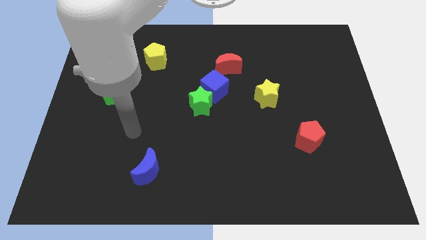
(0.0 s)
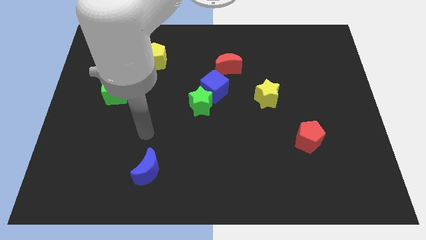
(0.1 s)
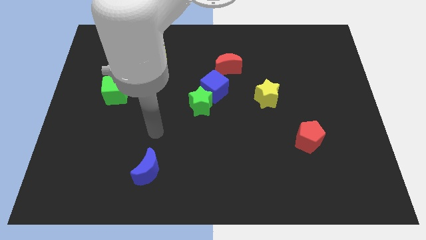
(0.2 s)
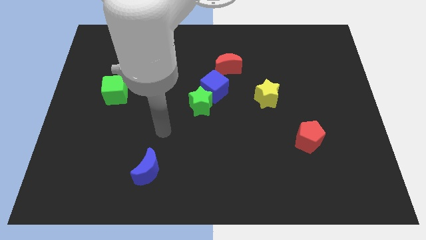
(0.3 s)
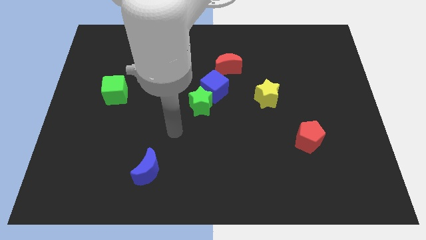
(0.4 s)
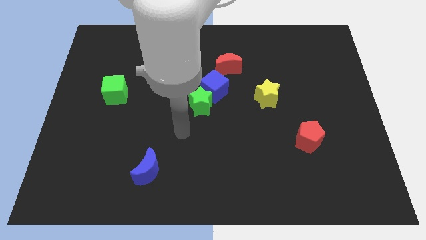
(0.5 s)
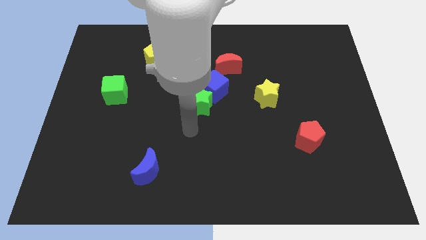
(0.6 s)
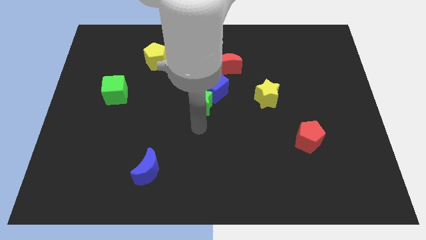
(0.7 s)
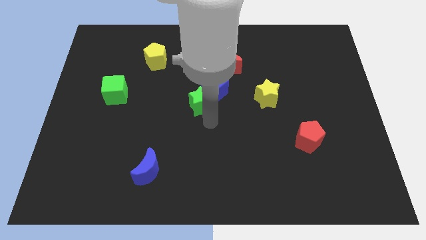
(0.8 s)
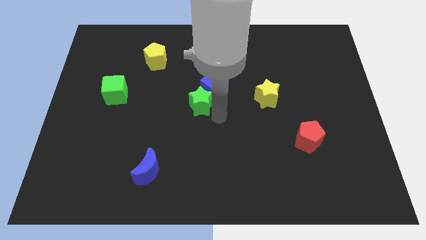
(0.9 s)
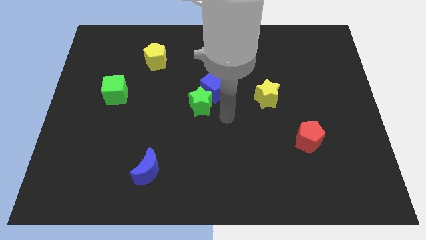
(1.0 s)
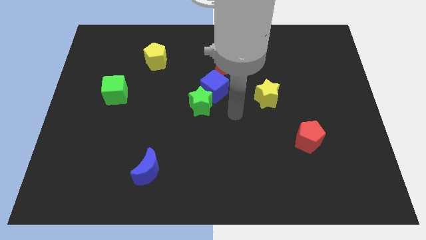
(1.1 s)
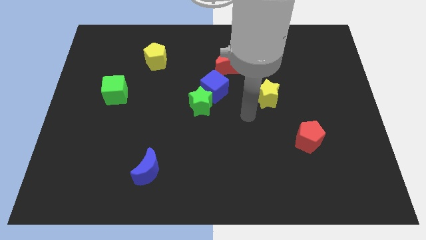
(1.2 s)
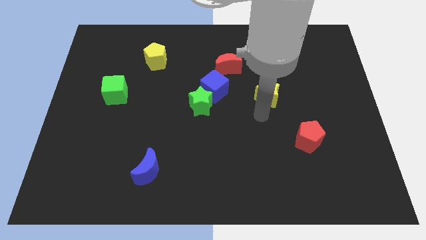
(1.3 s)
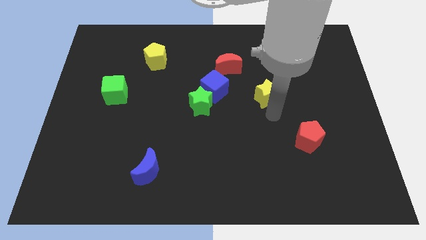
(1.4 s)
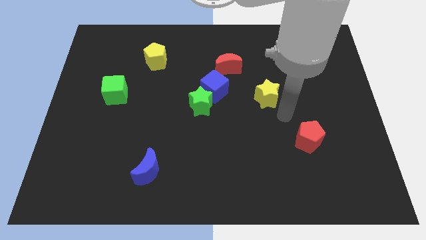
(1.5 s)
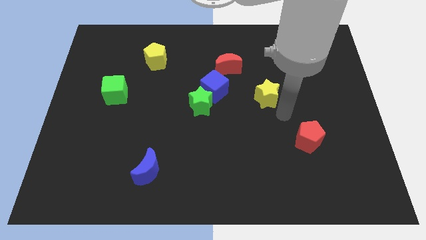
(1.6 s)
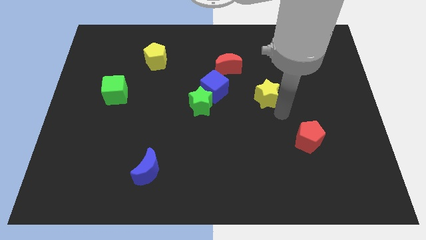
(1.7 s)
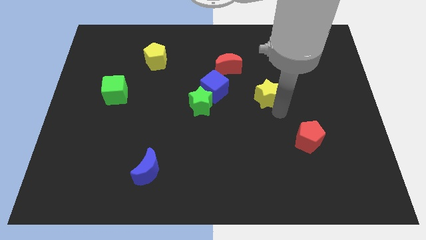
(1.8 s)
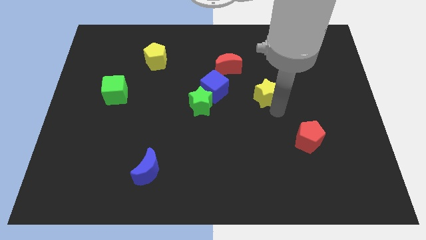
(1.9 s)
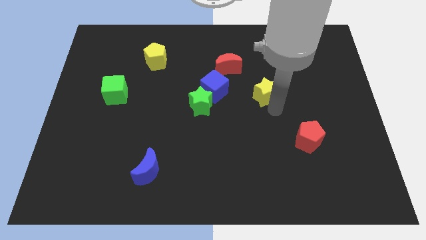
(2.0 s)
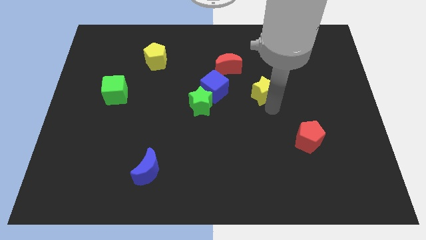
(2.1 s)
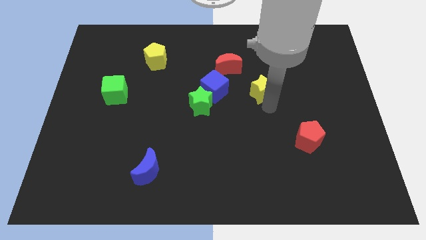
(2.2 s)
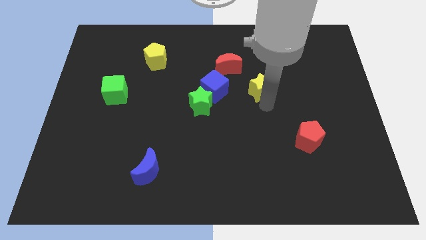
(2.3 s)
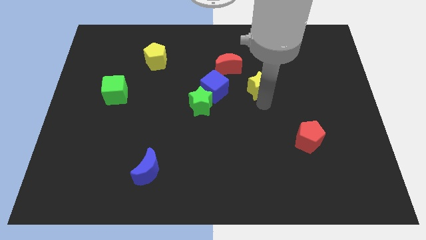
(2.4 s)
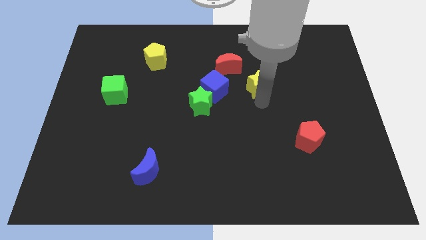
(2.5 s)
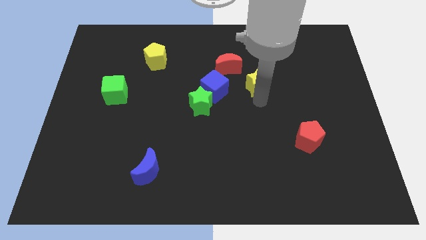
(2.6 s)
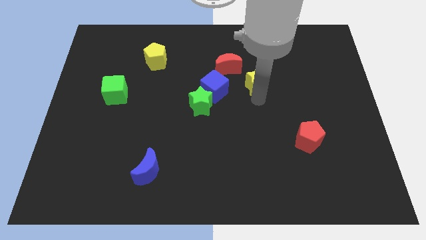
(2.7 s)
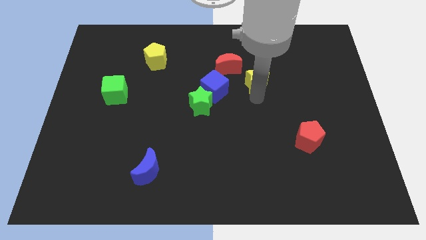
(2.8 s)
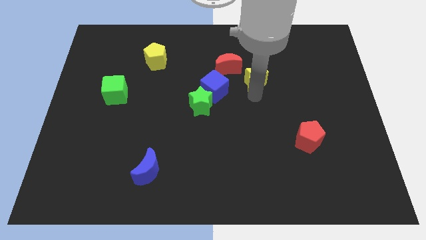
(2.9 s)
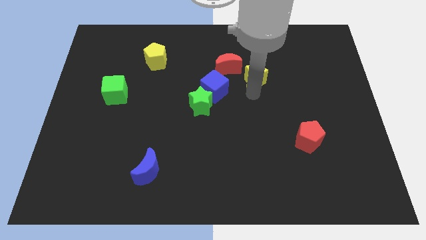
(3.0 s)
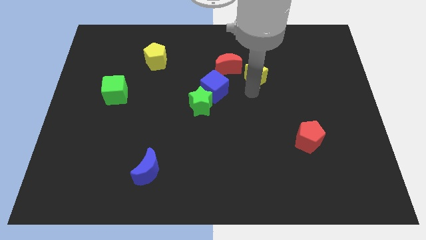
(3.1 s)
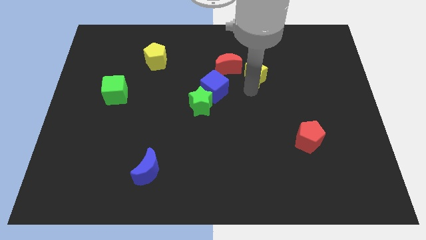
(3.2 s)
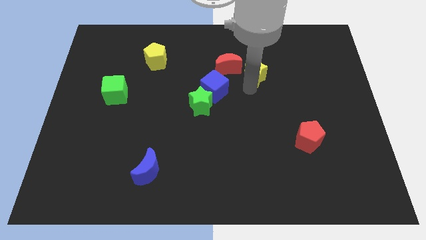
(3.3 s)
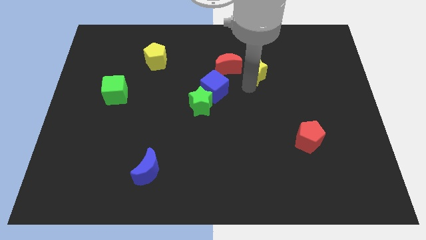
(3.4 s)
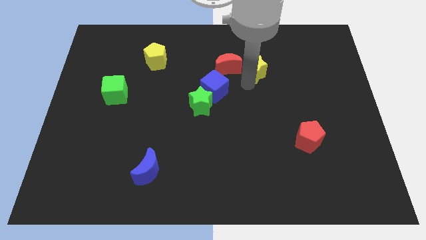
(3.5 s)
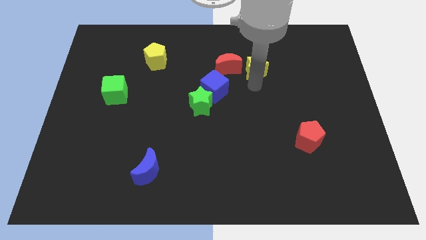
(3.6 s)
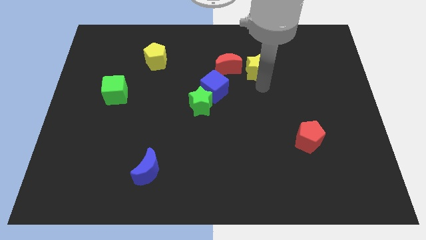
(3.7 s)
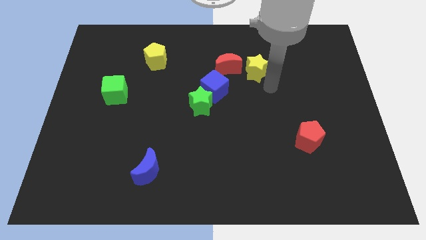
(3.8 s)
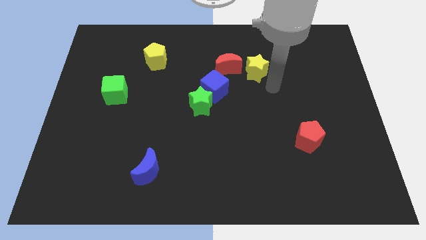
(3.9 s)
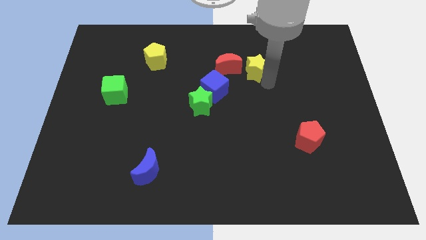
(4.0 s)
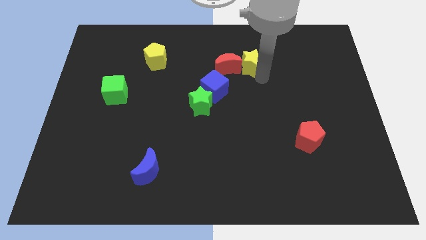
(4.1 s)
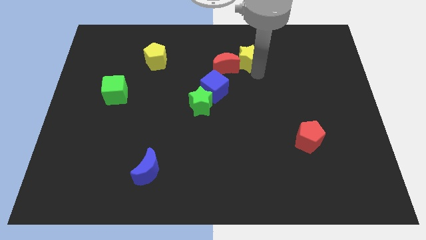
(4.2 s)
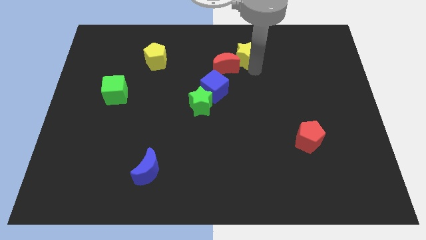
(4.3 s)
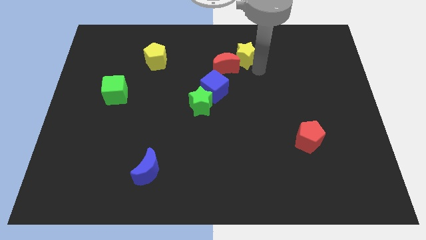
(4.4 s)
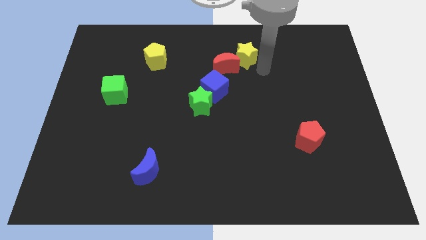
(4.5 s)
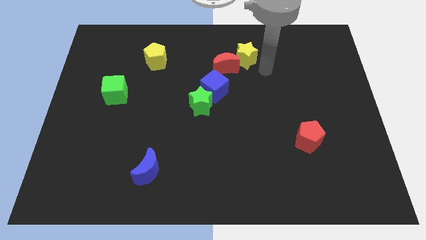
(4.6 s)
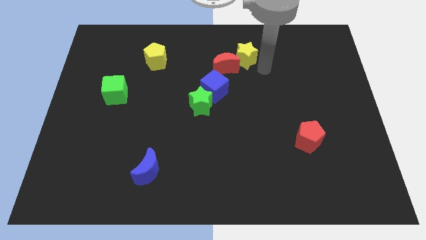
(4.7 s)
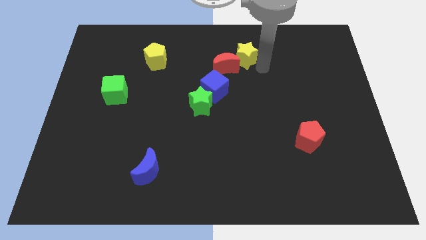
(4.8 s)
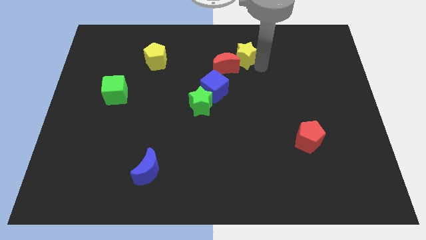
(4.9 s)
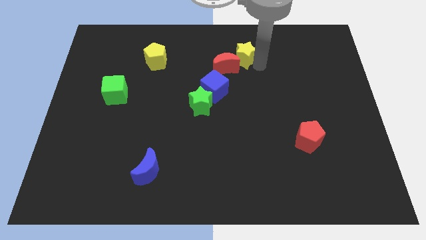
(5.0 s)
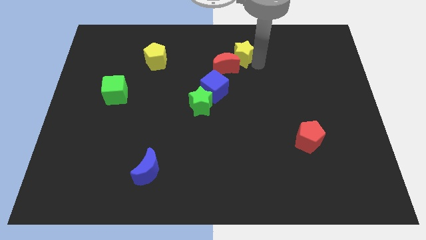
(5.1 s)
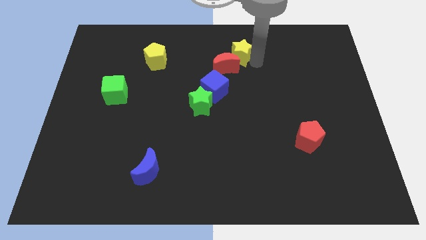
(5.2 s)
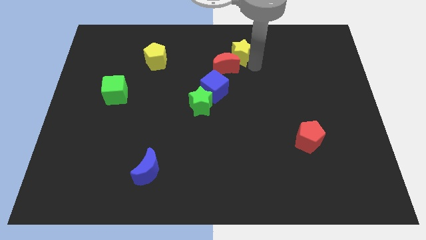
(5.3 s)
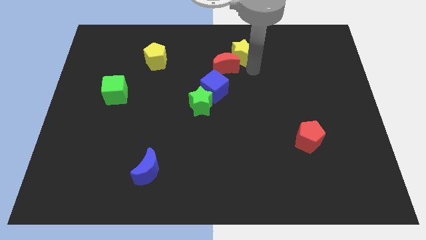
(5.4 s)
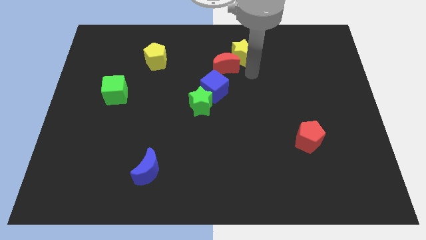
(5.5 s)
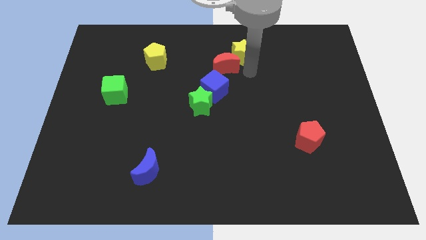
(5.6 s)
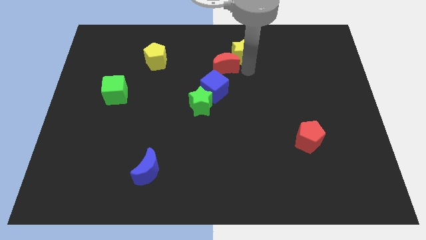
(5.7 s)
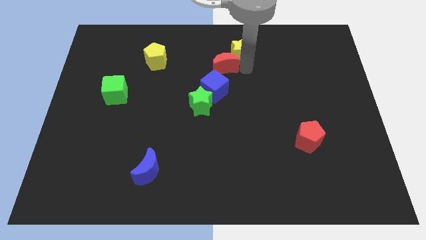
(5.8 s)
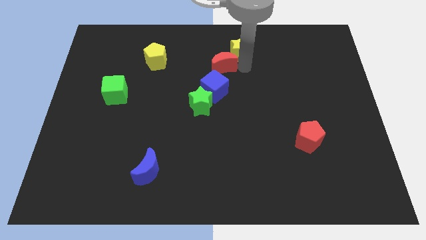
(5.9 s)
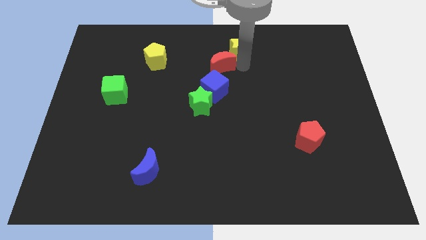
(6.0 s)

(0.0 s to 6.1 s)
slide the yellow star to the top side

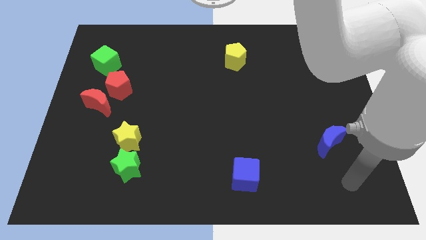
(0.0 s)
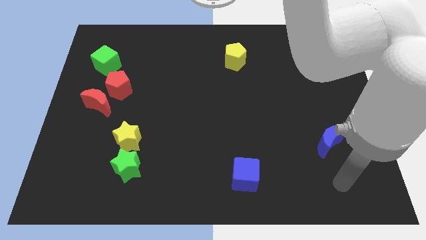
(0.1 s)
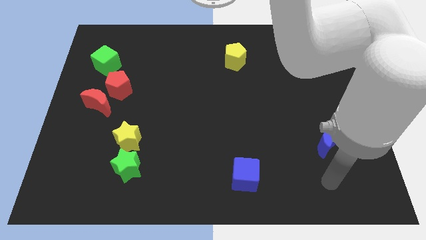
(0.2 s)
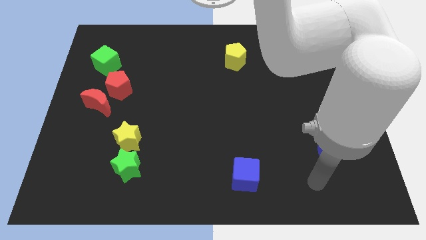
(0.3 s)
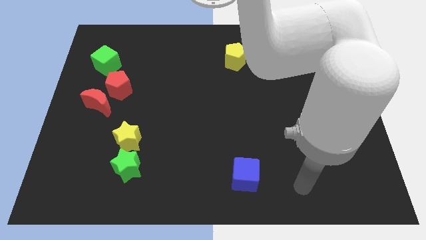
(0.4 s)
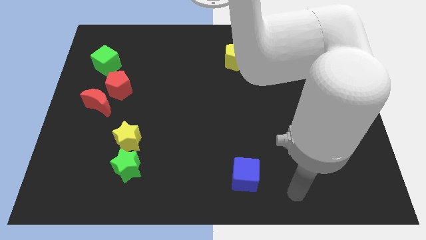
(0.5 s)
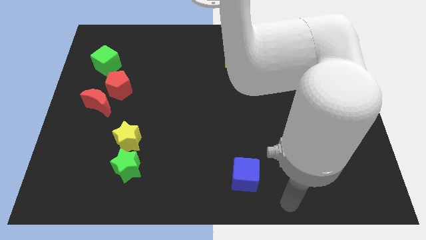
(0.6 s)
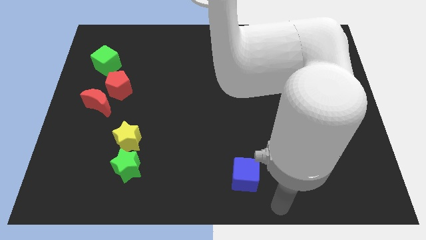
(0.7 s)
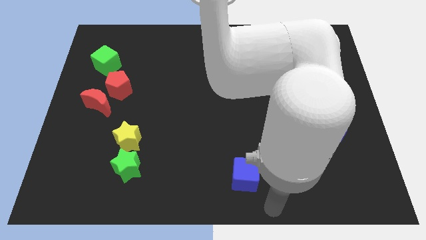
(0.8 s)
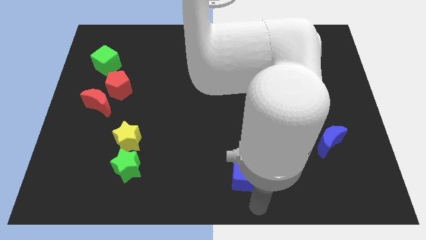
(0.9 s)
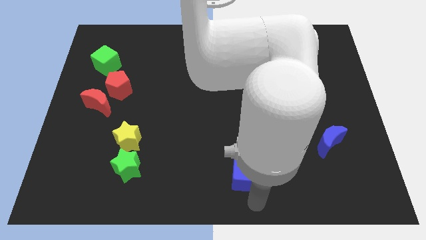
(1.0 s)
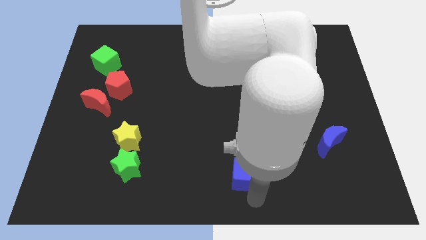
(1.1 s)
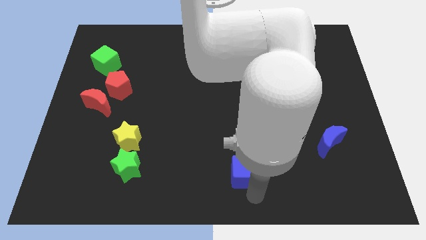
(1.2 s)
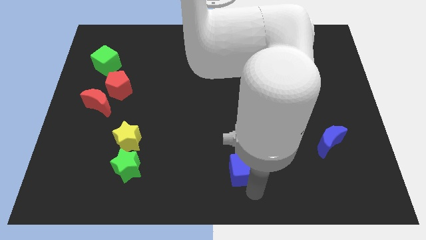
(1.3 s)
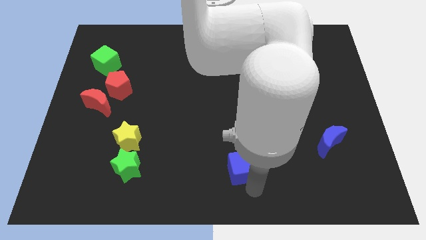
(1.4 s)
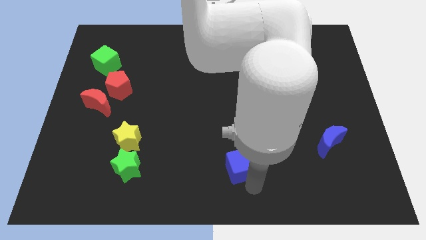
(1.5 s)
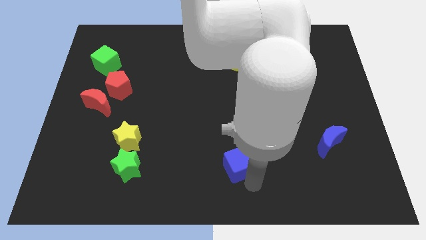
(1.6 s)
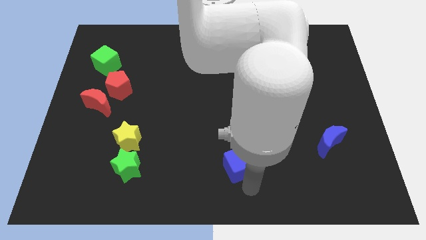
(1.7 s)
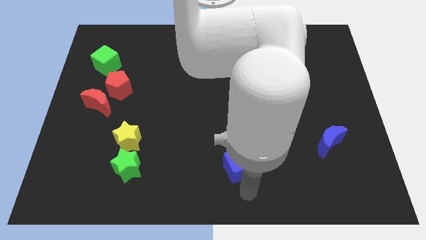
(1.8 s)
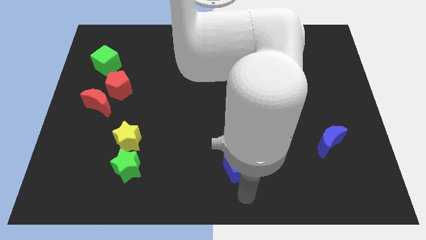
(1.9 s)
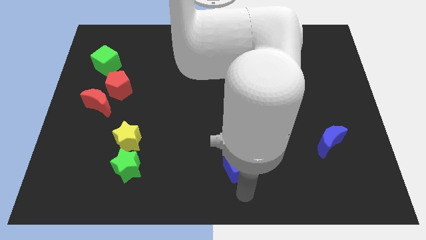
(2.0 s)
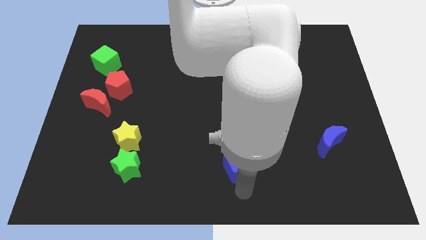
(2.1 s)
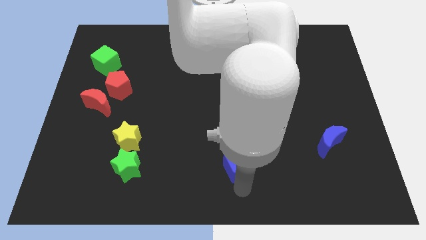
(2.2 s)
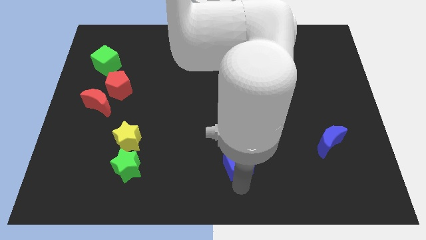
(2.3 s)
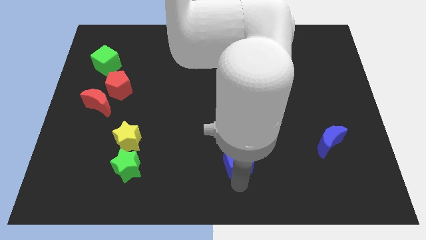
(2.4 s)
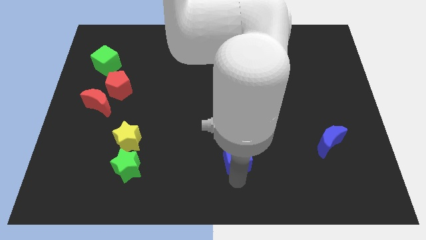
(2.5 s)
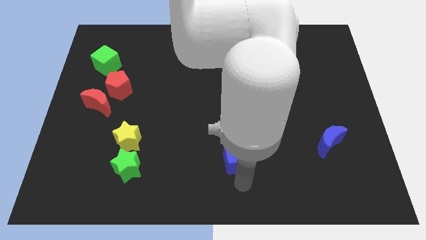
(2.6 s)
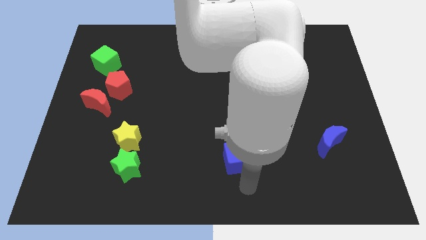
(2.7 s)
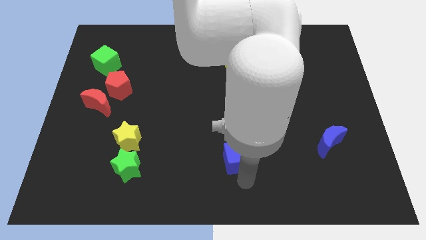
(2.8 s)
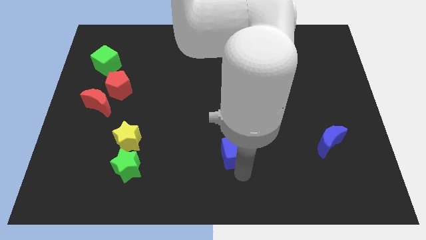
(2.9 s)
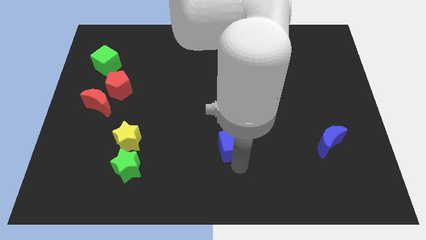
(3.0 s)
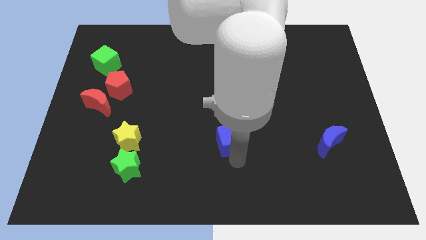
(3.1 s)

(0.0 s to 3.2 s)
slide the blue cube to the center
